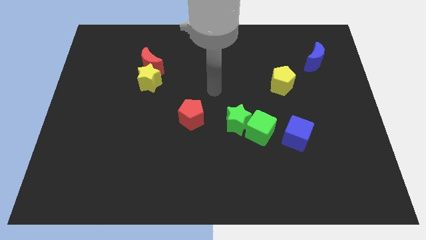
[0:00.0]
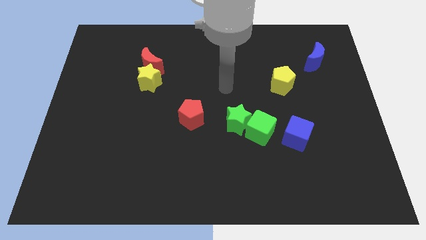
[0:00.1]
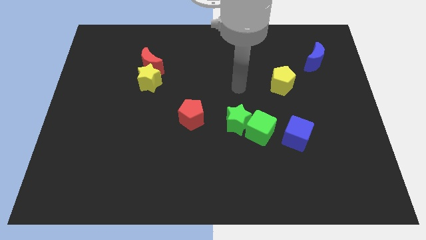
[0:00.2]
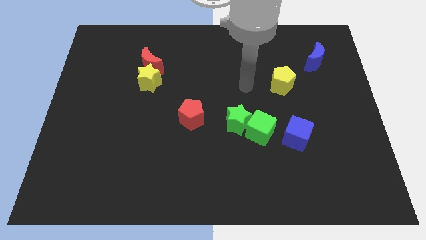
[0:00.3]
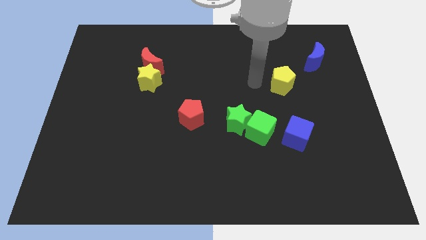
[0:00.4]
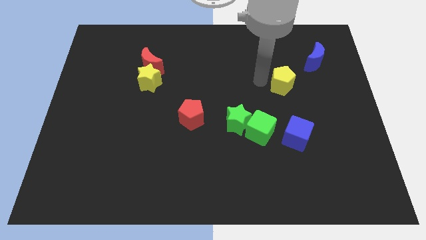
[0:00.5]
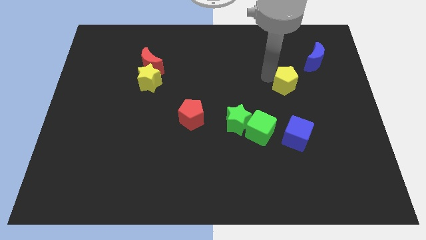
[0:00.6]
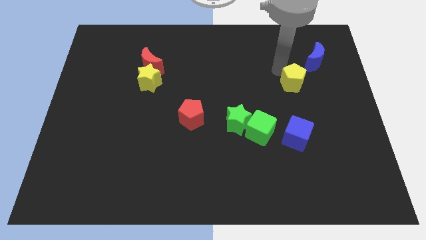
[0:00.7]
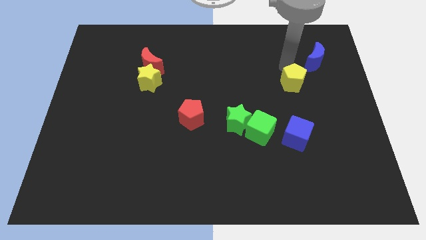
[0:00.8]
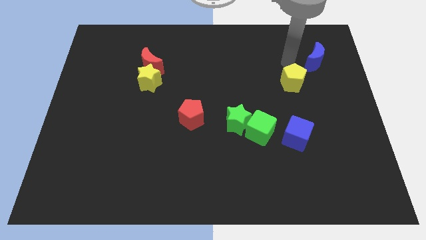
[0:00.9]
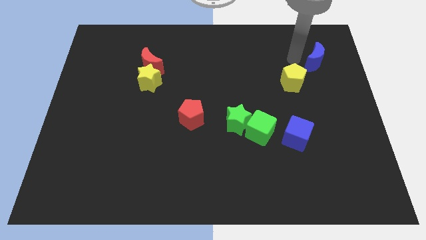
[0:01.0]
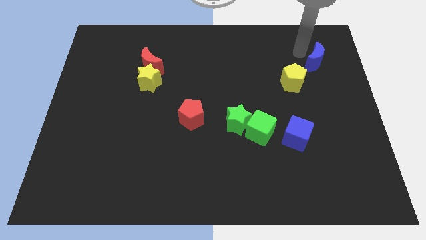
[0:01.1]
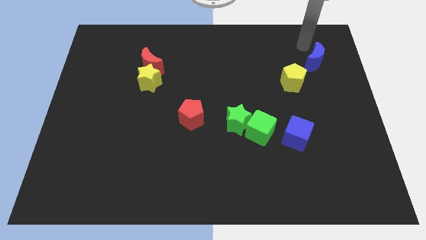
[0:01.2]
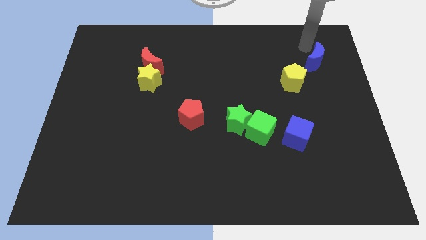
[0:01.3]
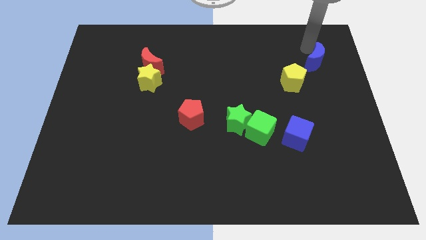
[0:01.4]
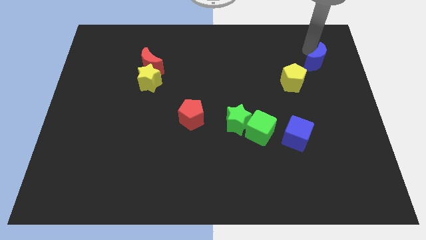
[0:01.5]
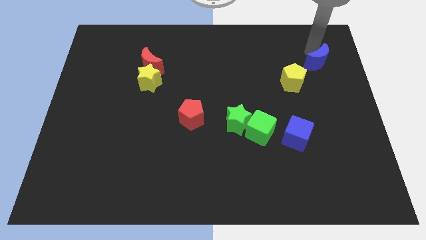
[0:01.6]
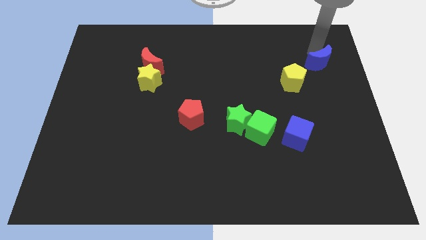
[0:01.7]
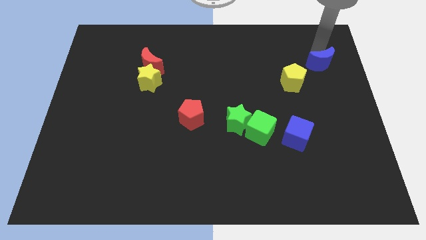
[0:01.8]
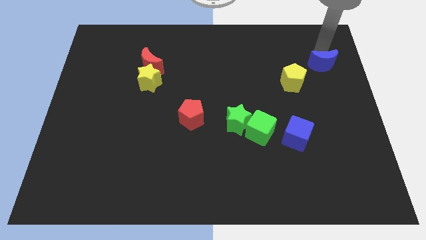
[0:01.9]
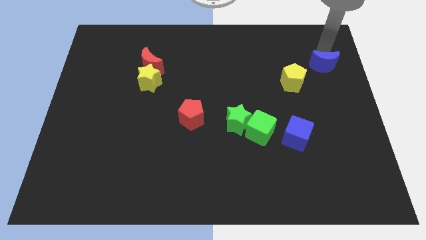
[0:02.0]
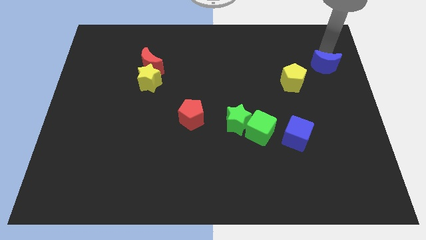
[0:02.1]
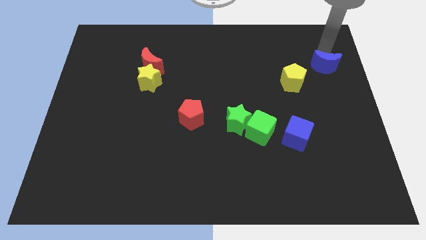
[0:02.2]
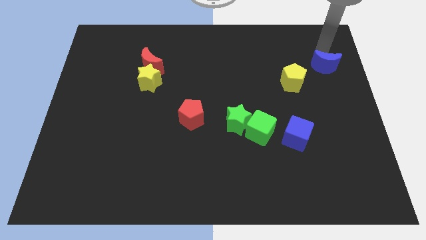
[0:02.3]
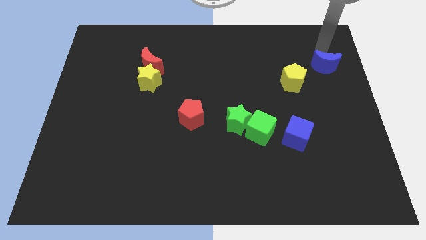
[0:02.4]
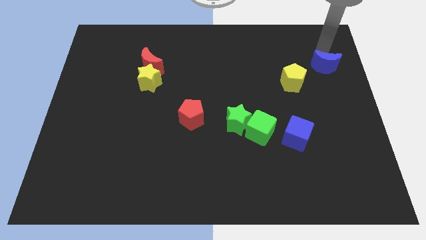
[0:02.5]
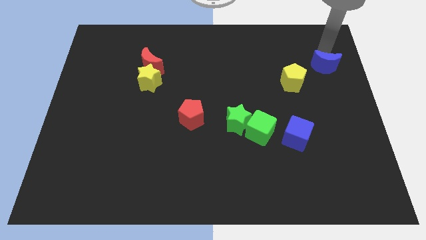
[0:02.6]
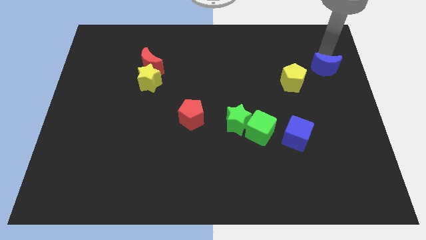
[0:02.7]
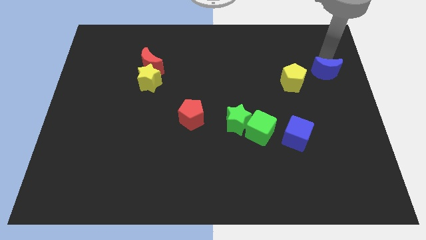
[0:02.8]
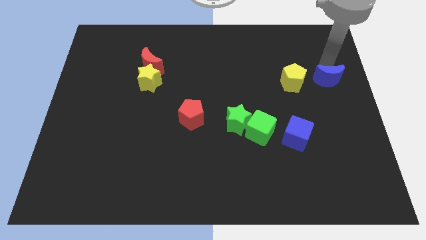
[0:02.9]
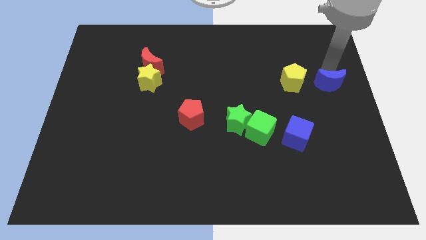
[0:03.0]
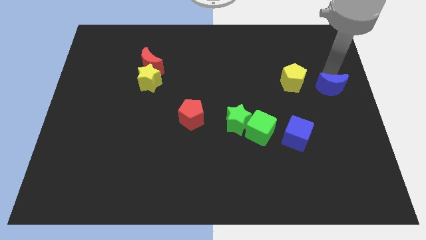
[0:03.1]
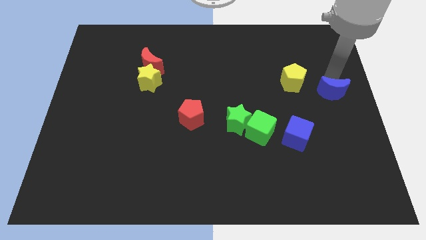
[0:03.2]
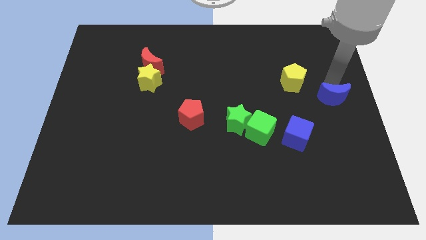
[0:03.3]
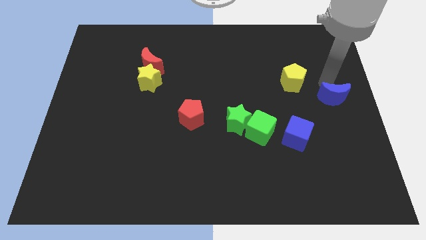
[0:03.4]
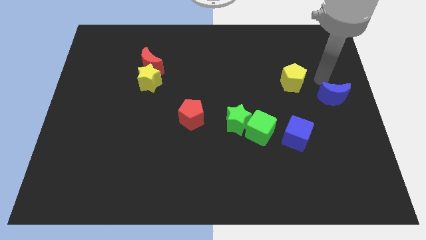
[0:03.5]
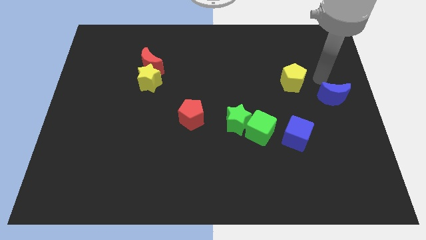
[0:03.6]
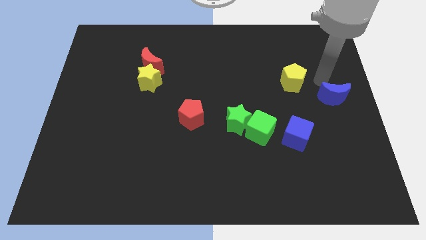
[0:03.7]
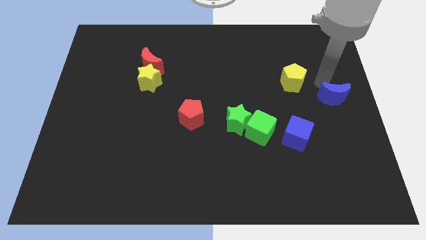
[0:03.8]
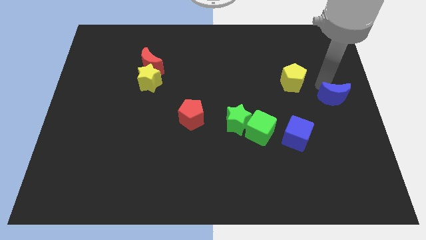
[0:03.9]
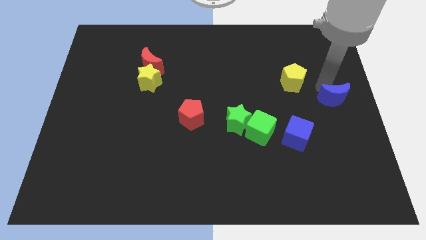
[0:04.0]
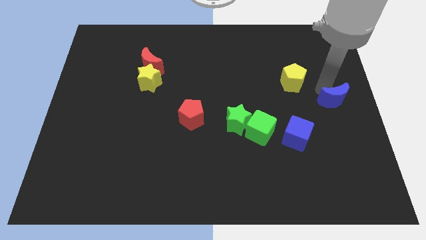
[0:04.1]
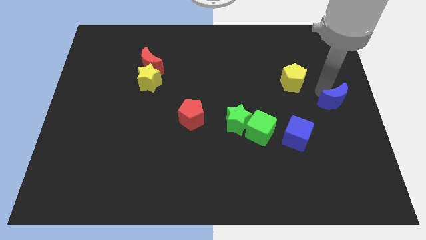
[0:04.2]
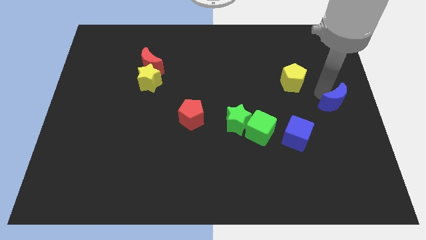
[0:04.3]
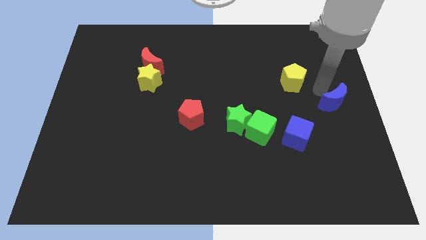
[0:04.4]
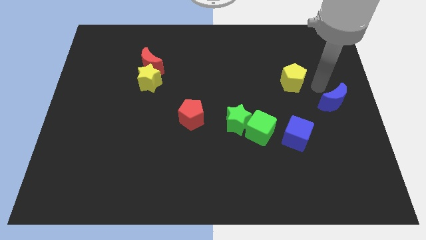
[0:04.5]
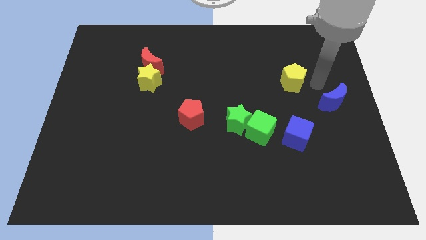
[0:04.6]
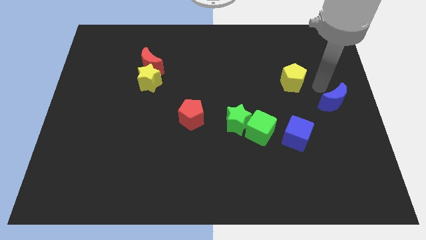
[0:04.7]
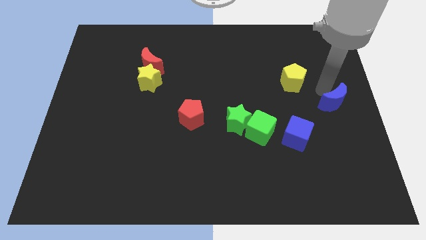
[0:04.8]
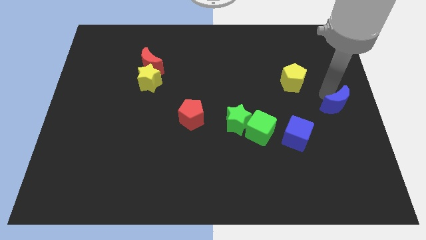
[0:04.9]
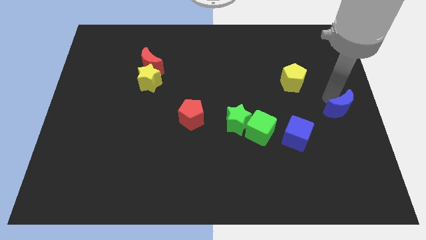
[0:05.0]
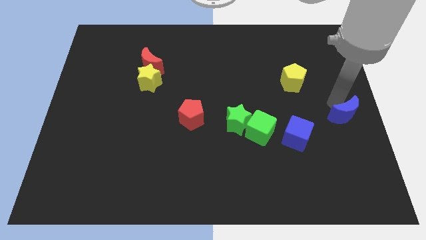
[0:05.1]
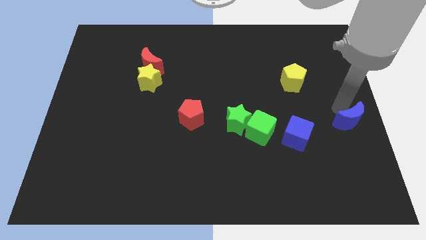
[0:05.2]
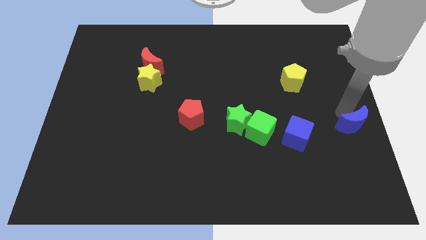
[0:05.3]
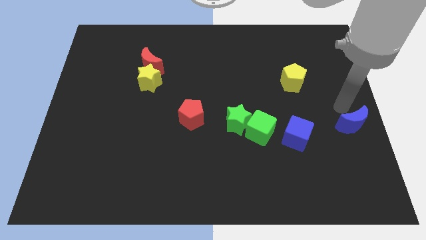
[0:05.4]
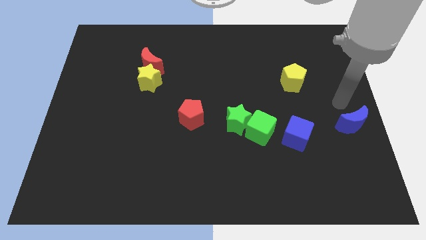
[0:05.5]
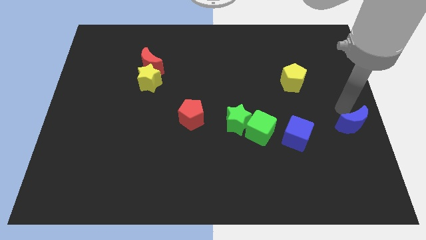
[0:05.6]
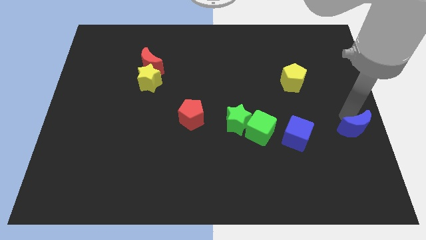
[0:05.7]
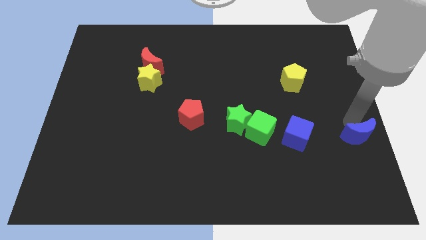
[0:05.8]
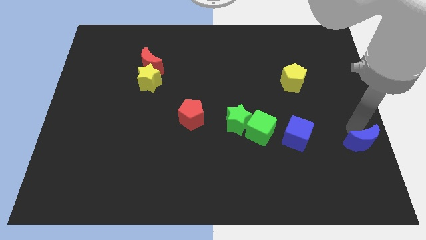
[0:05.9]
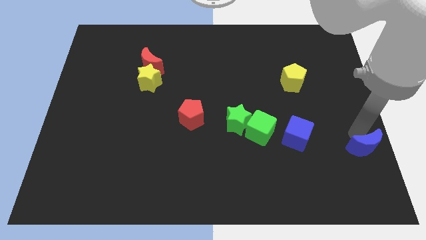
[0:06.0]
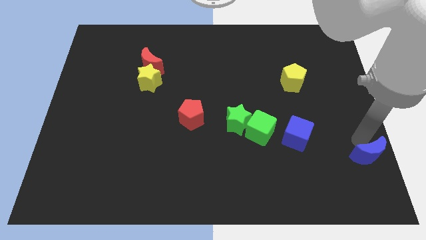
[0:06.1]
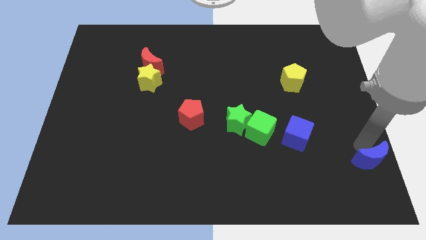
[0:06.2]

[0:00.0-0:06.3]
put the blue moon to the bottom right of the board
